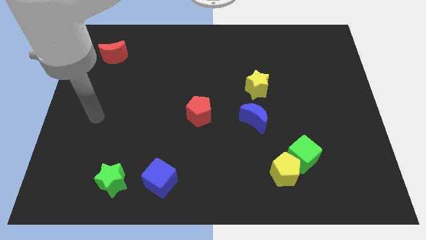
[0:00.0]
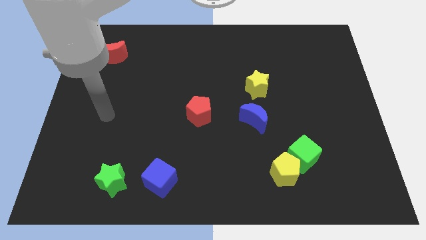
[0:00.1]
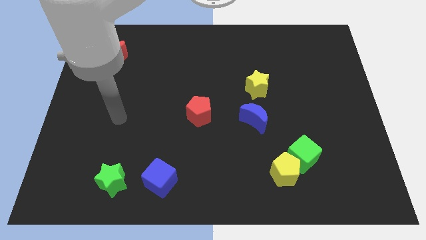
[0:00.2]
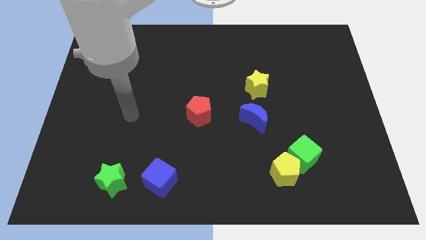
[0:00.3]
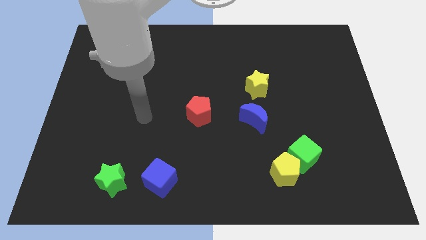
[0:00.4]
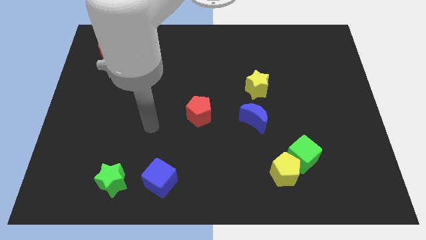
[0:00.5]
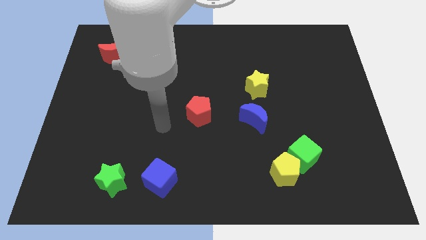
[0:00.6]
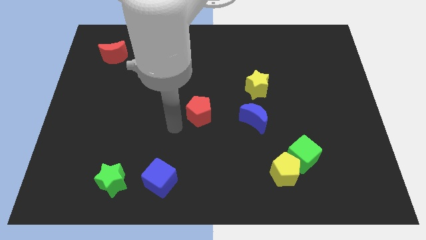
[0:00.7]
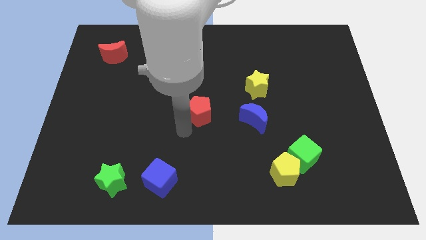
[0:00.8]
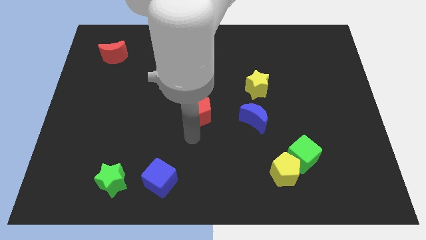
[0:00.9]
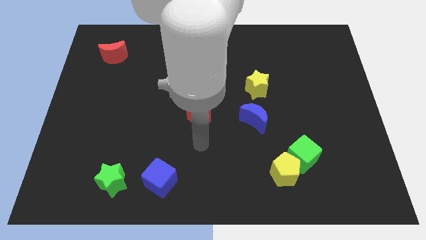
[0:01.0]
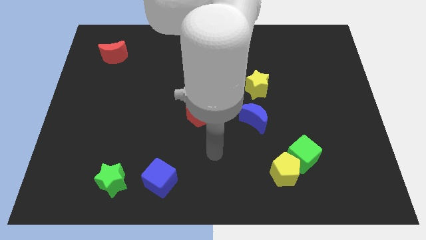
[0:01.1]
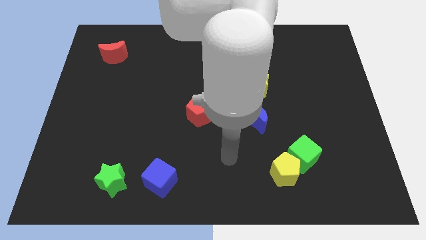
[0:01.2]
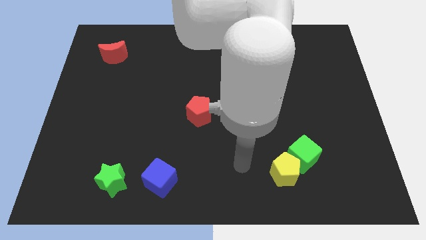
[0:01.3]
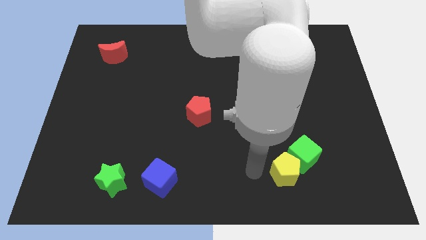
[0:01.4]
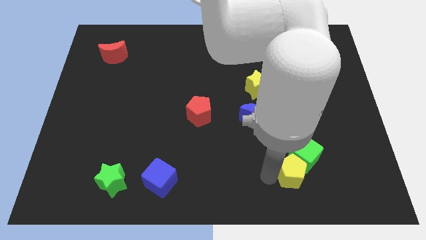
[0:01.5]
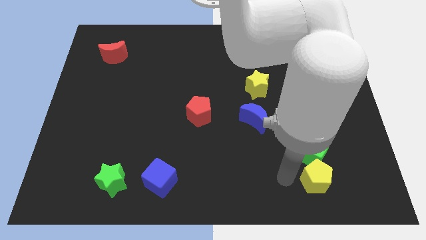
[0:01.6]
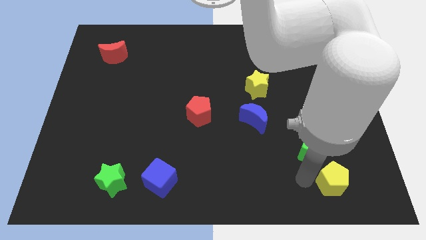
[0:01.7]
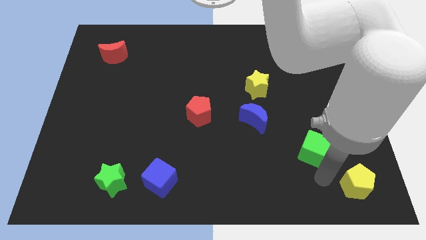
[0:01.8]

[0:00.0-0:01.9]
separate the green cube from the yellow pentagon

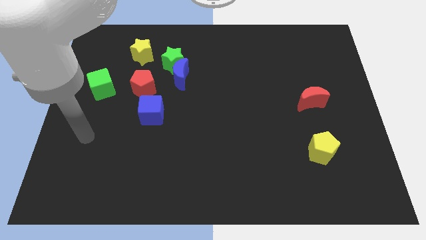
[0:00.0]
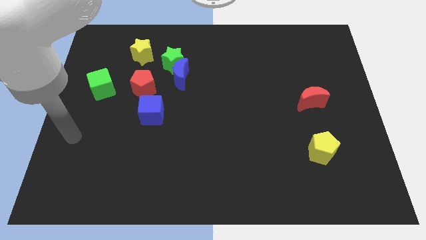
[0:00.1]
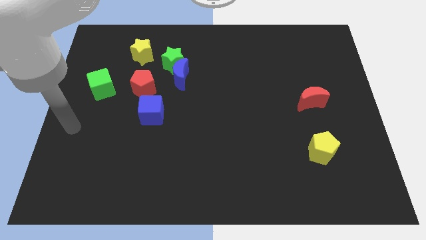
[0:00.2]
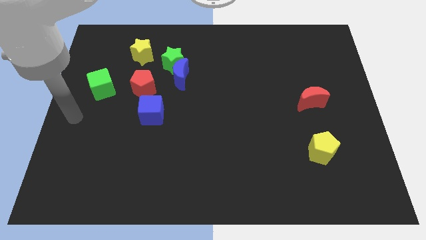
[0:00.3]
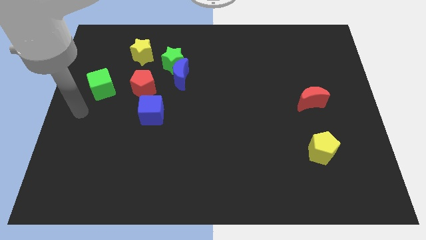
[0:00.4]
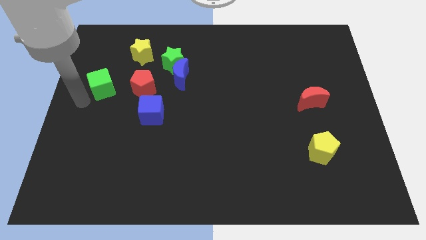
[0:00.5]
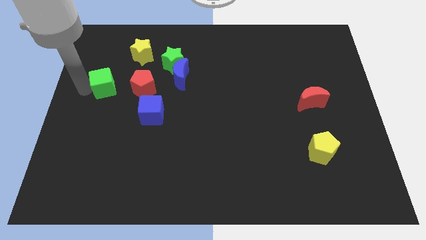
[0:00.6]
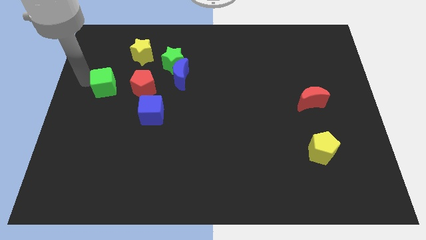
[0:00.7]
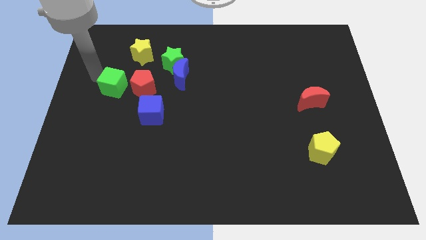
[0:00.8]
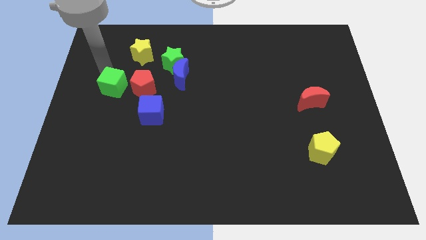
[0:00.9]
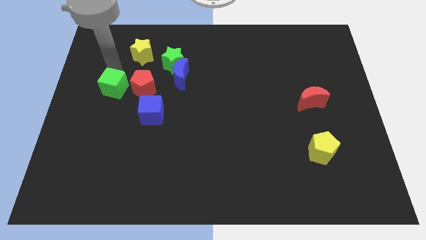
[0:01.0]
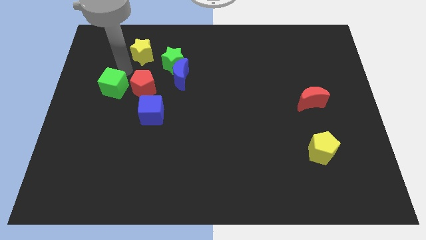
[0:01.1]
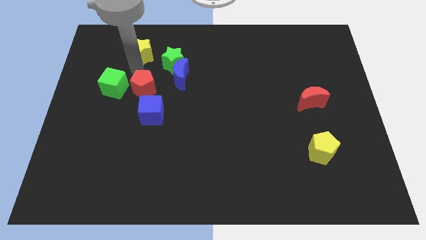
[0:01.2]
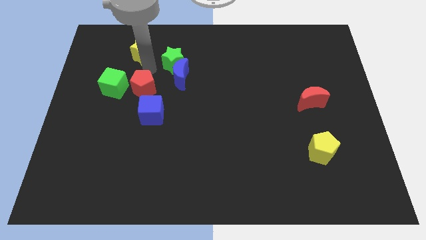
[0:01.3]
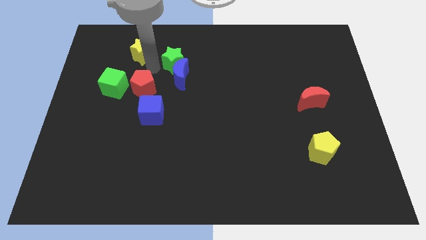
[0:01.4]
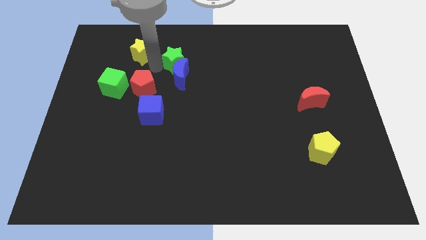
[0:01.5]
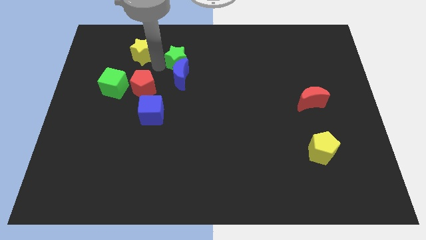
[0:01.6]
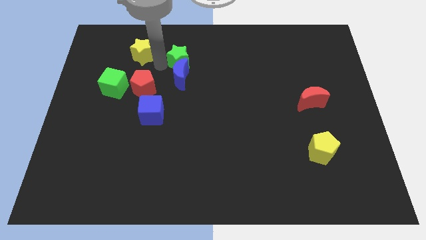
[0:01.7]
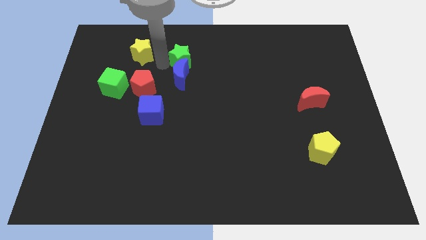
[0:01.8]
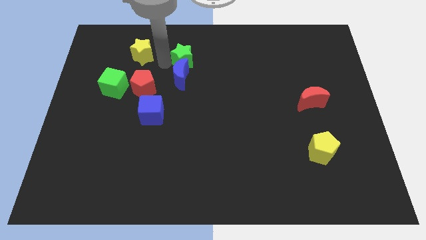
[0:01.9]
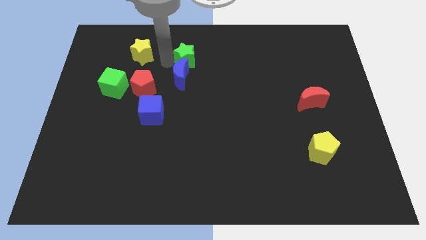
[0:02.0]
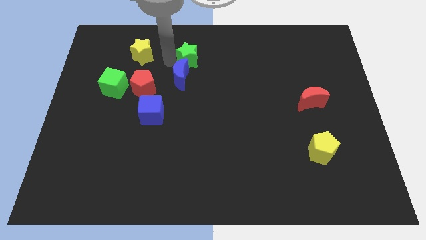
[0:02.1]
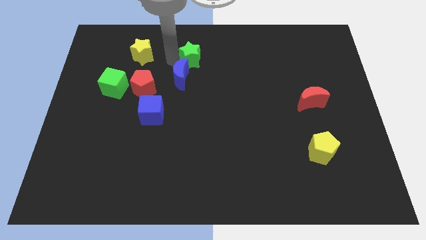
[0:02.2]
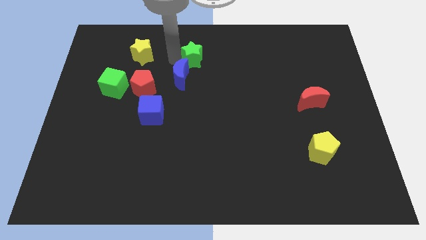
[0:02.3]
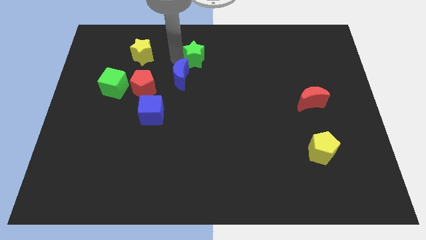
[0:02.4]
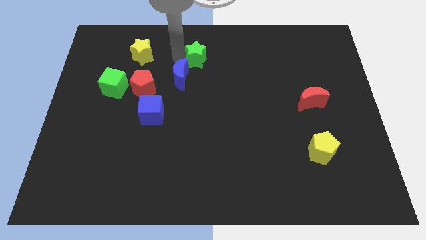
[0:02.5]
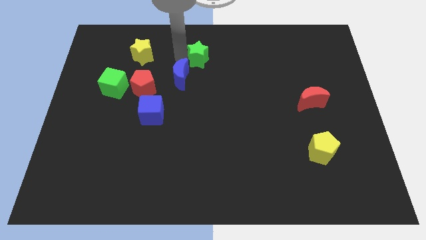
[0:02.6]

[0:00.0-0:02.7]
separate the green star from the blue moon and yellow star

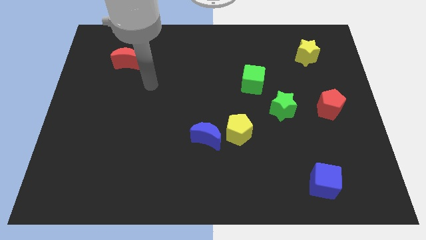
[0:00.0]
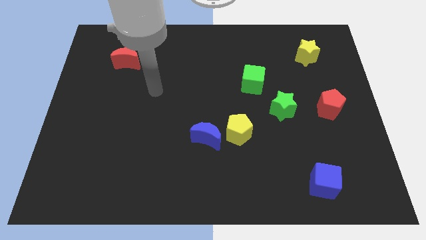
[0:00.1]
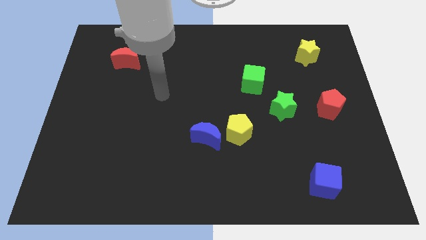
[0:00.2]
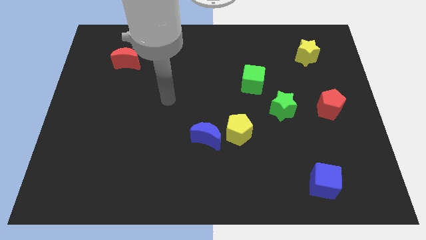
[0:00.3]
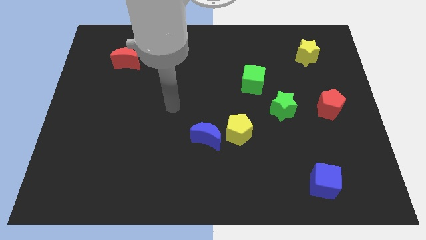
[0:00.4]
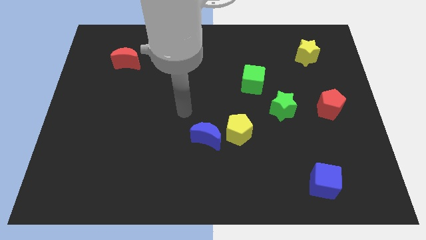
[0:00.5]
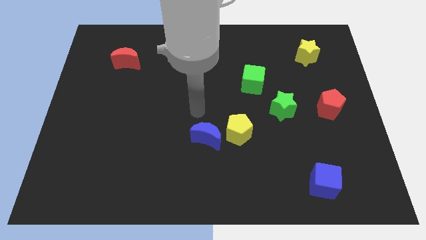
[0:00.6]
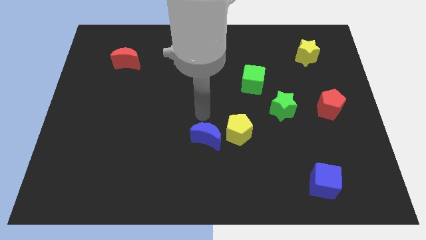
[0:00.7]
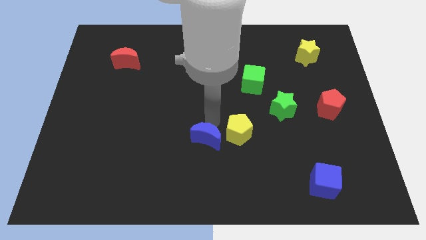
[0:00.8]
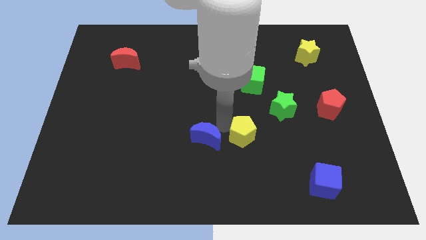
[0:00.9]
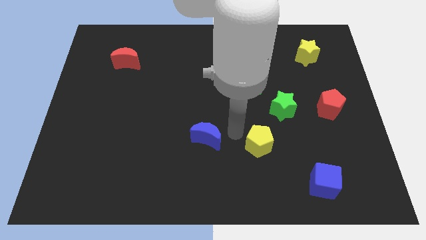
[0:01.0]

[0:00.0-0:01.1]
move the blue moon away from the yellow pentagon

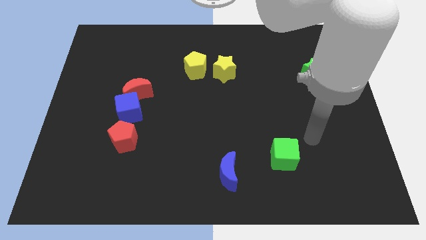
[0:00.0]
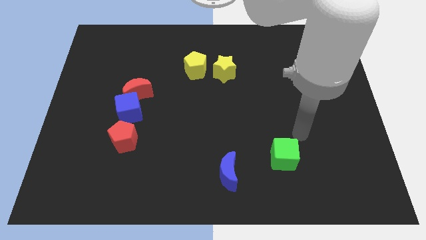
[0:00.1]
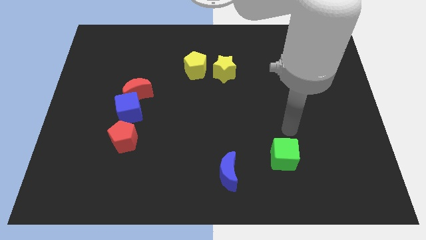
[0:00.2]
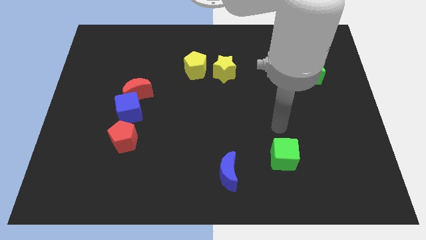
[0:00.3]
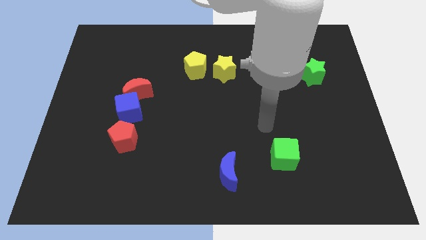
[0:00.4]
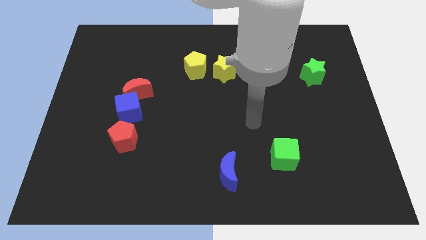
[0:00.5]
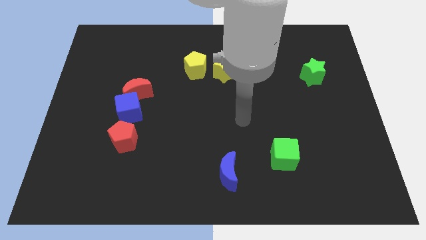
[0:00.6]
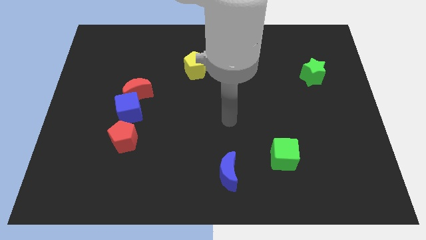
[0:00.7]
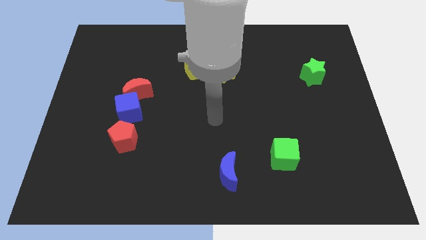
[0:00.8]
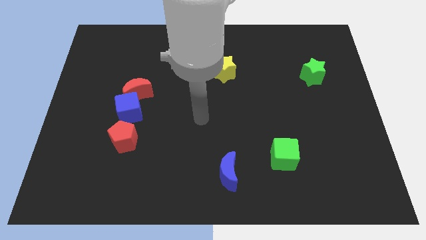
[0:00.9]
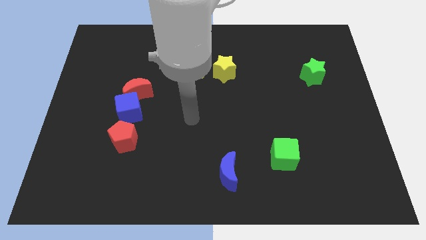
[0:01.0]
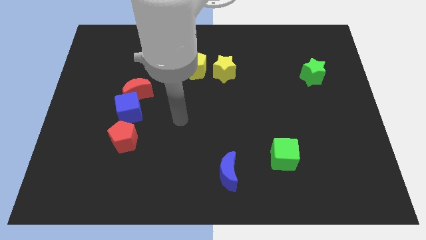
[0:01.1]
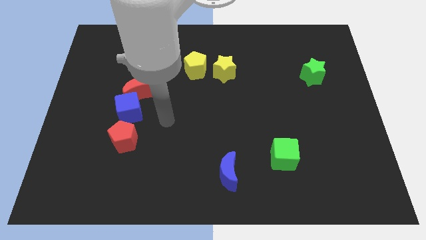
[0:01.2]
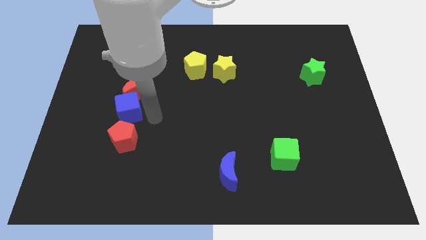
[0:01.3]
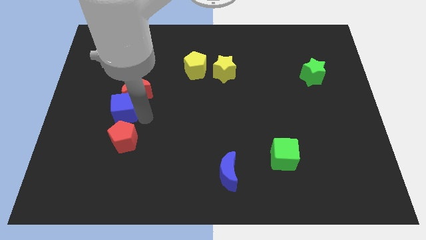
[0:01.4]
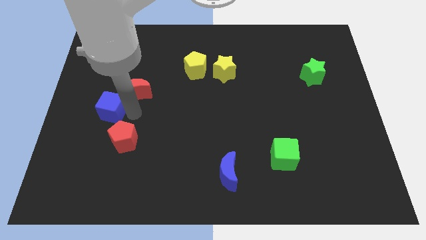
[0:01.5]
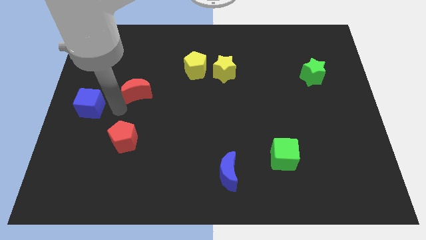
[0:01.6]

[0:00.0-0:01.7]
move the red moon away from the blue cube

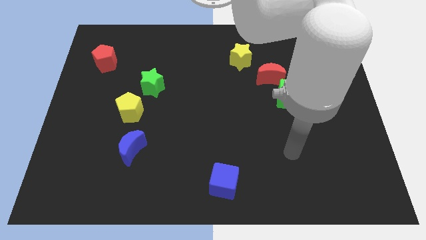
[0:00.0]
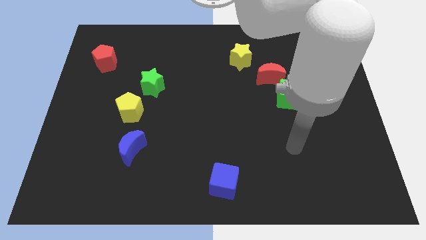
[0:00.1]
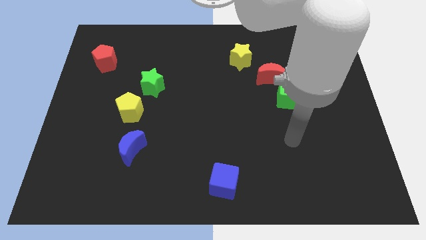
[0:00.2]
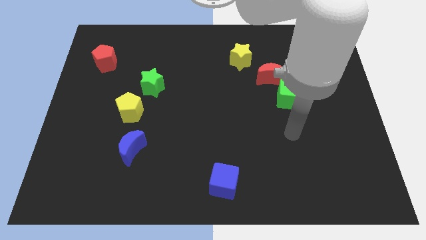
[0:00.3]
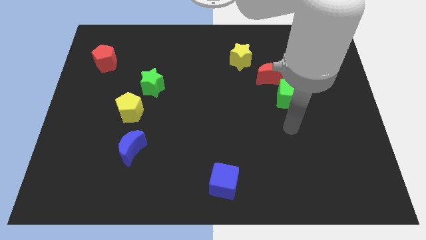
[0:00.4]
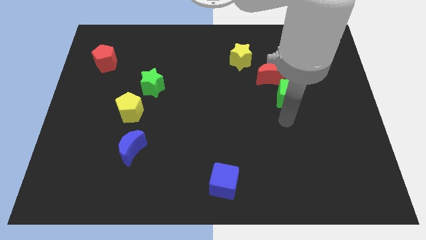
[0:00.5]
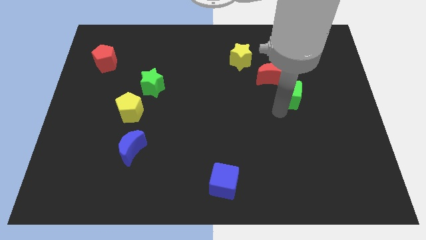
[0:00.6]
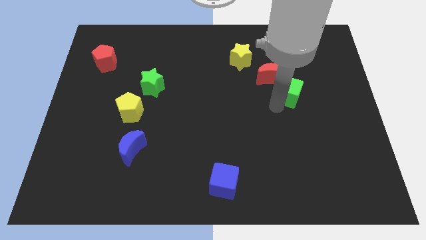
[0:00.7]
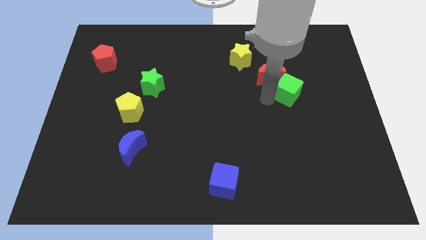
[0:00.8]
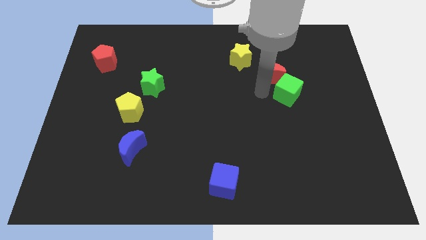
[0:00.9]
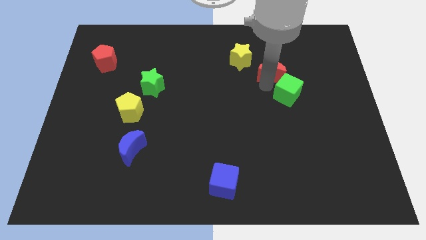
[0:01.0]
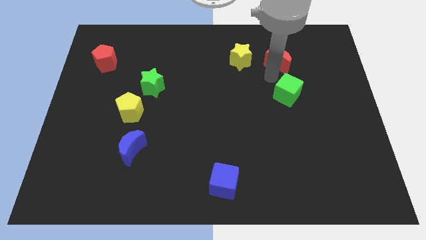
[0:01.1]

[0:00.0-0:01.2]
pull the green cube apart from the red moon

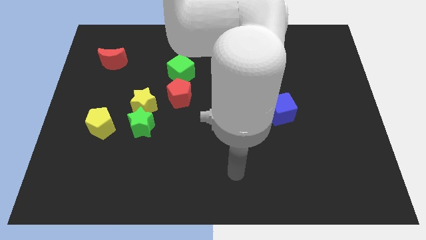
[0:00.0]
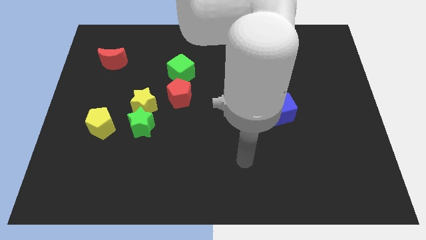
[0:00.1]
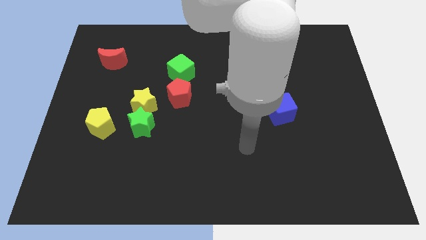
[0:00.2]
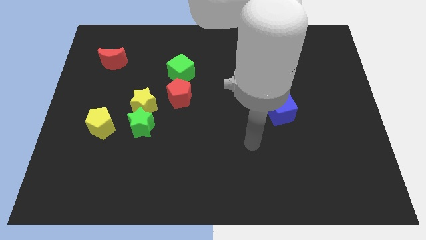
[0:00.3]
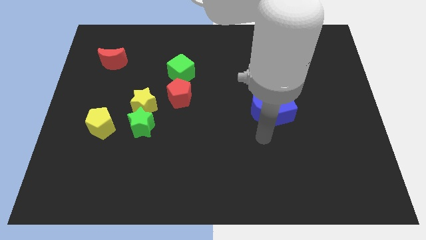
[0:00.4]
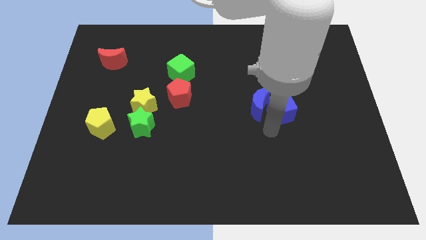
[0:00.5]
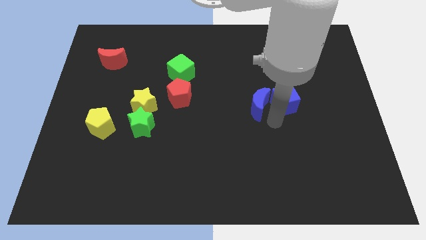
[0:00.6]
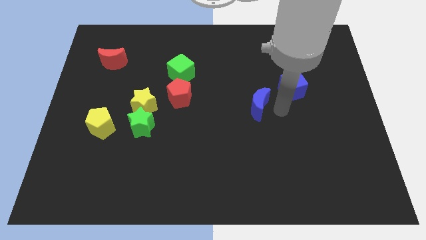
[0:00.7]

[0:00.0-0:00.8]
move the blue moon away from the blue cube
